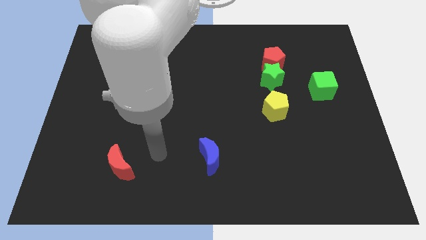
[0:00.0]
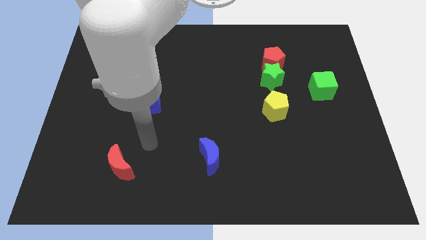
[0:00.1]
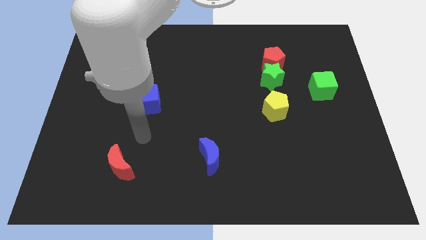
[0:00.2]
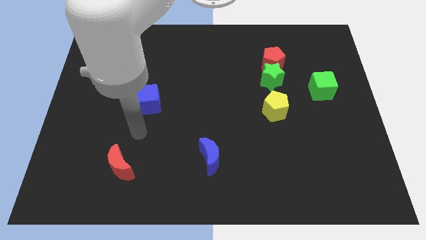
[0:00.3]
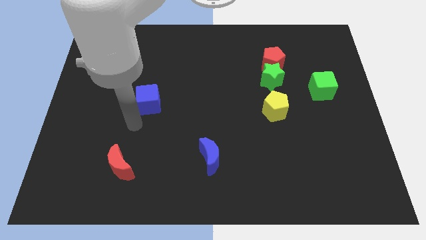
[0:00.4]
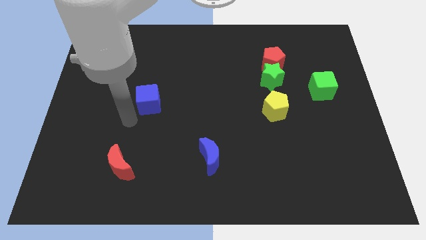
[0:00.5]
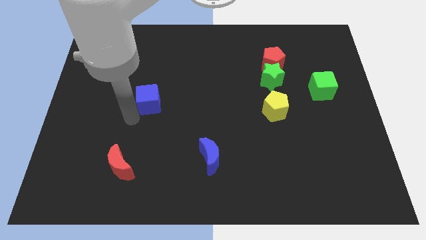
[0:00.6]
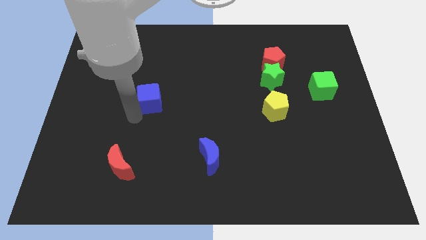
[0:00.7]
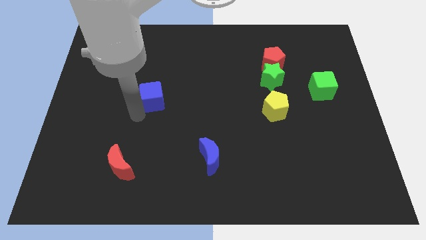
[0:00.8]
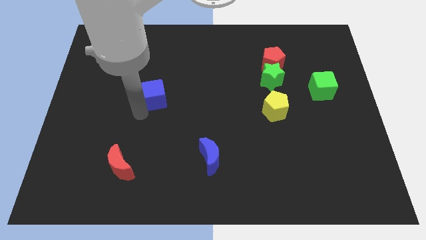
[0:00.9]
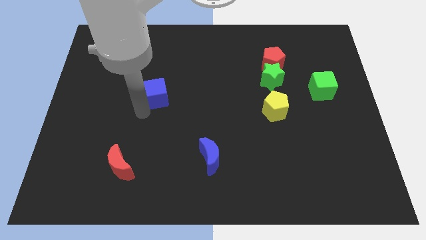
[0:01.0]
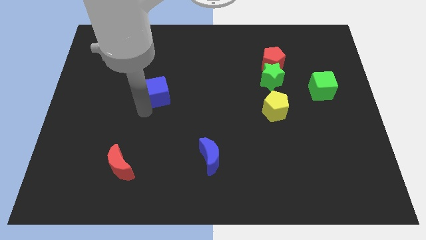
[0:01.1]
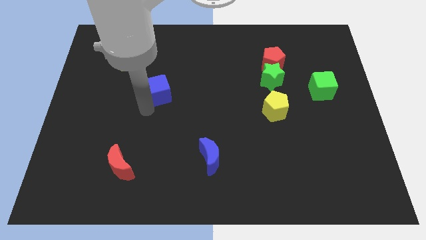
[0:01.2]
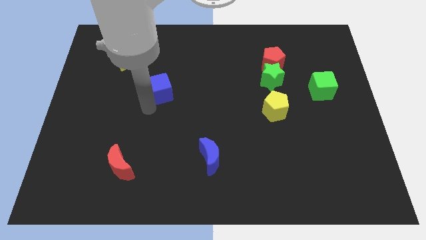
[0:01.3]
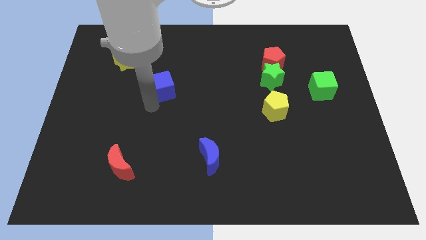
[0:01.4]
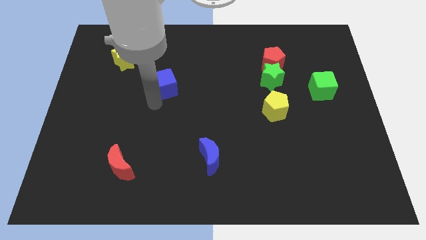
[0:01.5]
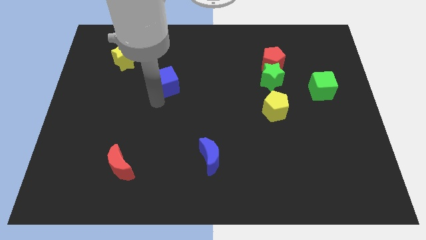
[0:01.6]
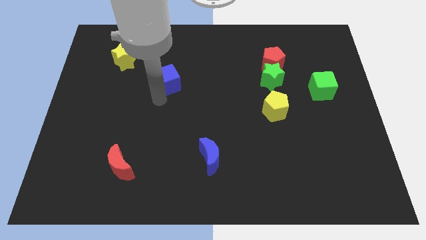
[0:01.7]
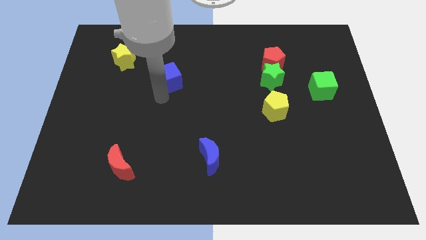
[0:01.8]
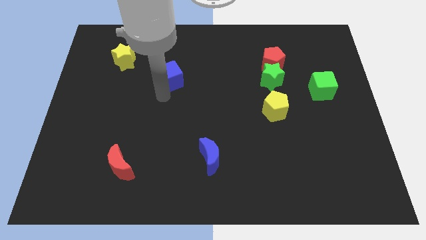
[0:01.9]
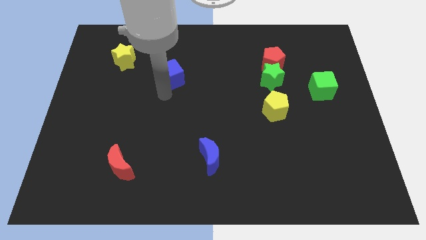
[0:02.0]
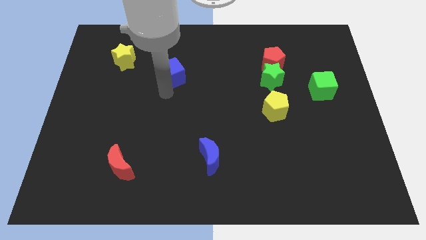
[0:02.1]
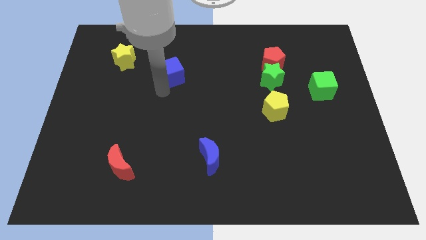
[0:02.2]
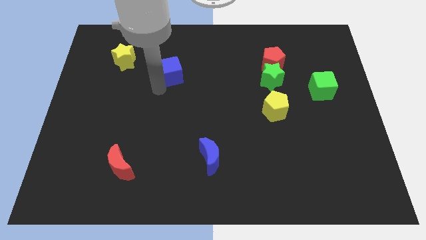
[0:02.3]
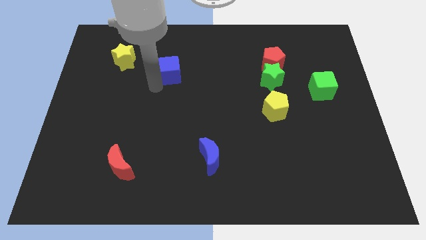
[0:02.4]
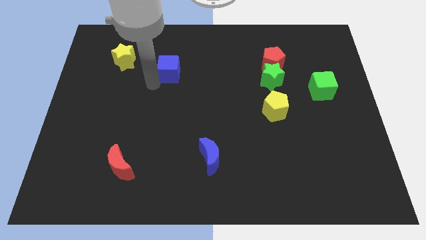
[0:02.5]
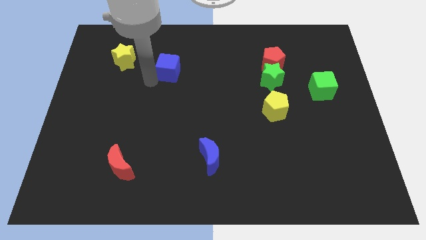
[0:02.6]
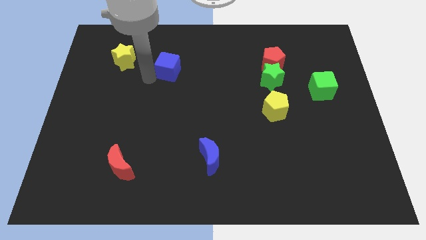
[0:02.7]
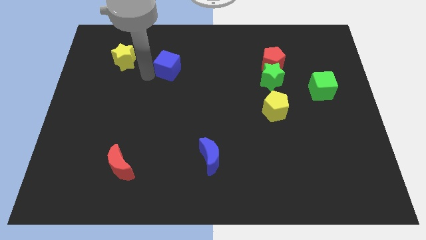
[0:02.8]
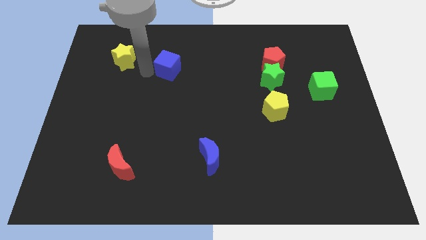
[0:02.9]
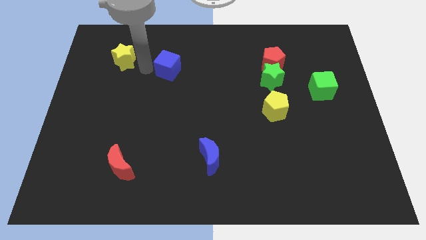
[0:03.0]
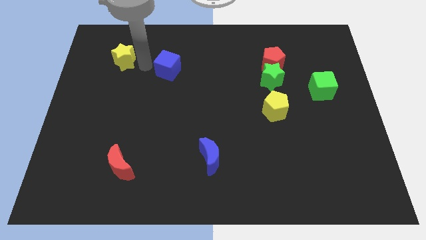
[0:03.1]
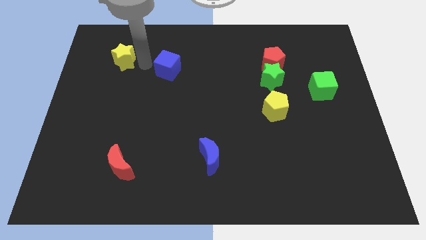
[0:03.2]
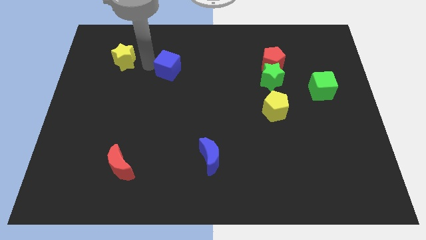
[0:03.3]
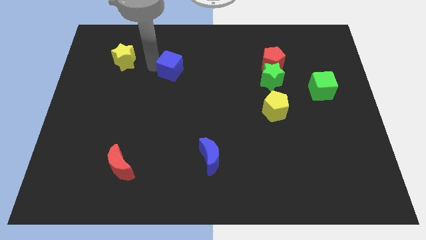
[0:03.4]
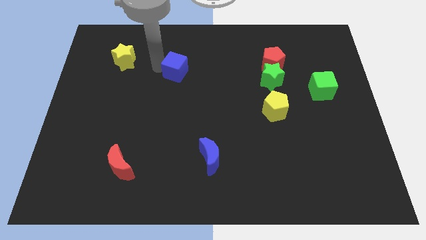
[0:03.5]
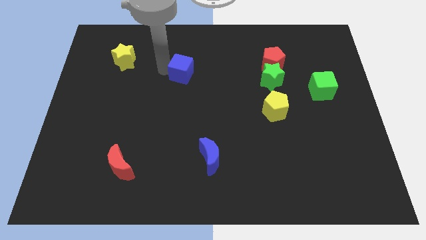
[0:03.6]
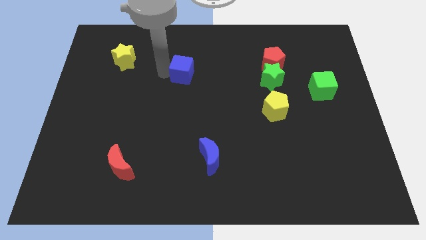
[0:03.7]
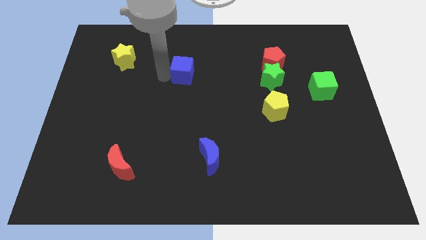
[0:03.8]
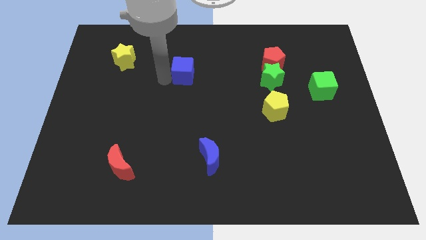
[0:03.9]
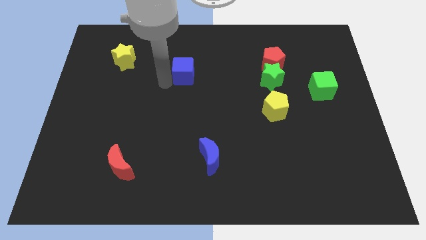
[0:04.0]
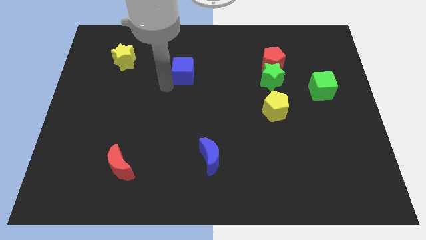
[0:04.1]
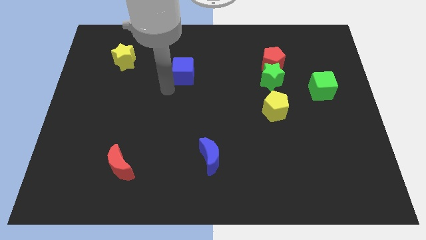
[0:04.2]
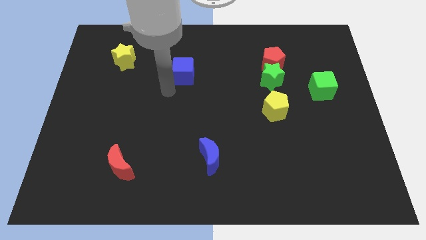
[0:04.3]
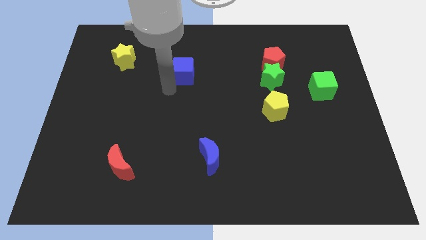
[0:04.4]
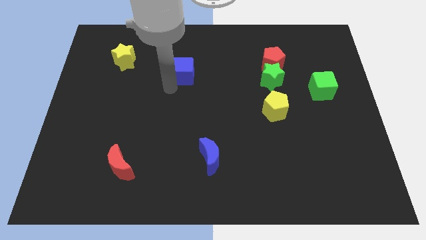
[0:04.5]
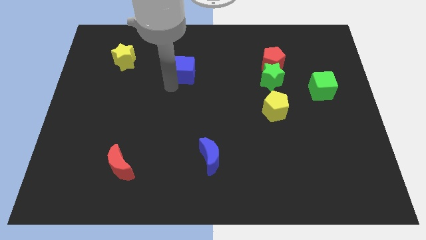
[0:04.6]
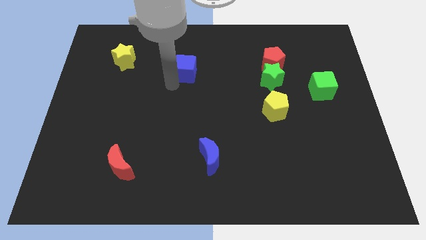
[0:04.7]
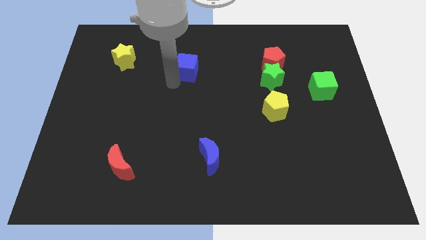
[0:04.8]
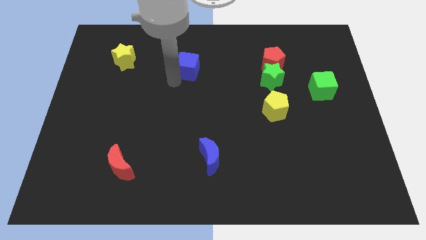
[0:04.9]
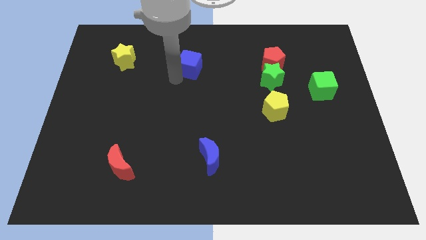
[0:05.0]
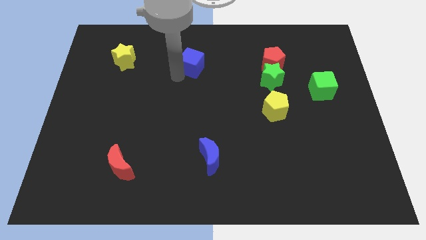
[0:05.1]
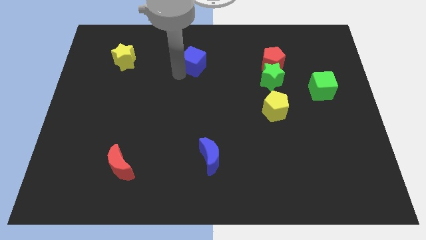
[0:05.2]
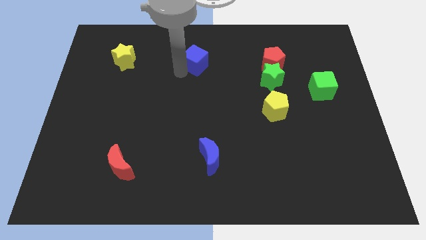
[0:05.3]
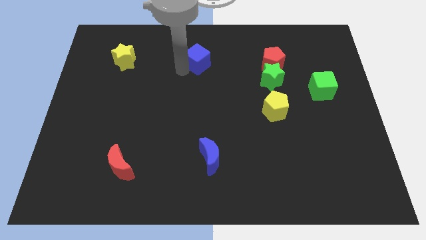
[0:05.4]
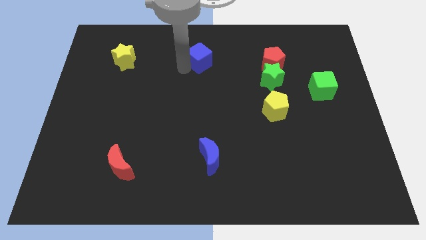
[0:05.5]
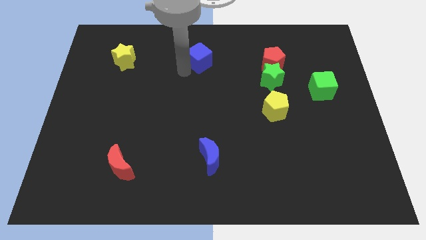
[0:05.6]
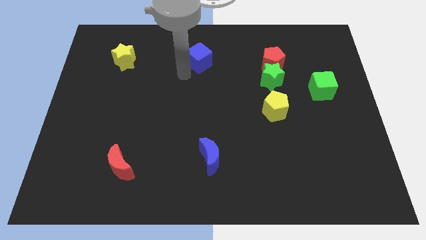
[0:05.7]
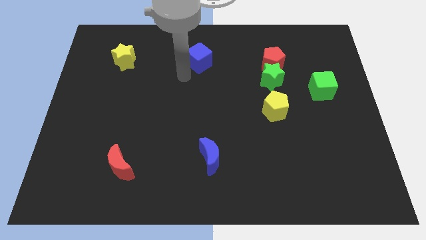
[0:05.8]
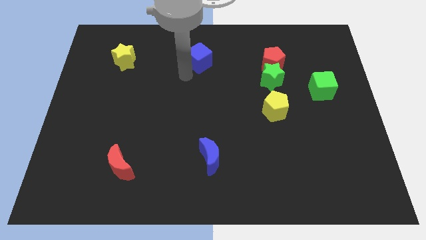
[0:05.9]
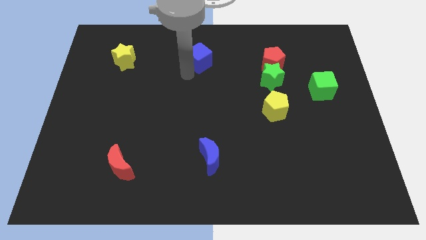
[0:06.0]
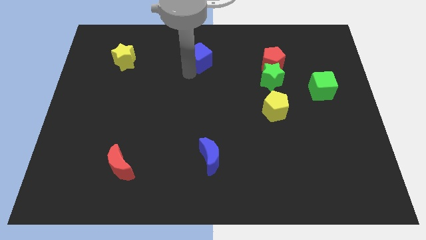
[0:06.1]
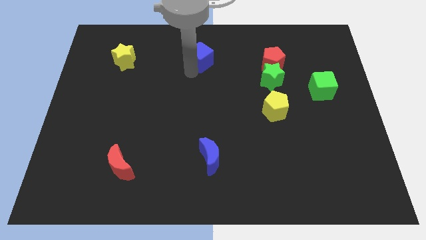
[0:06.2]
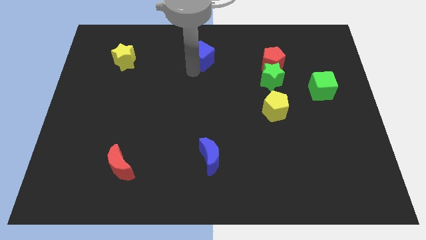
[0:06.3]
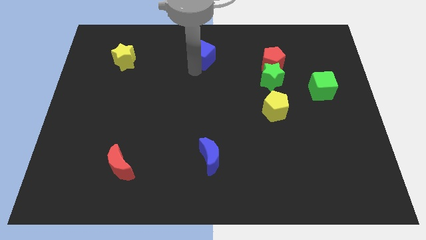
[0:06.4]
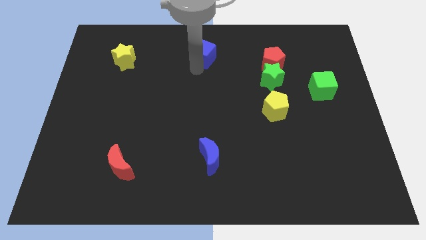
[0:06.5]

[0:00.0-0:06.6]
push the blue cube to the towards your base
